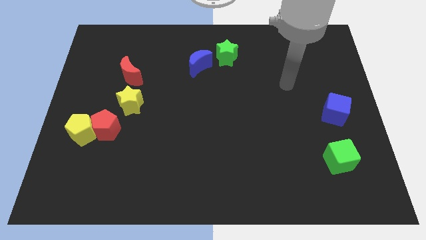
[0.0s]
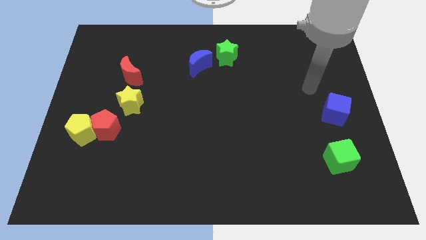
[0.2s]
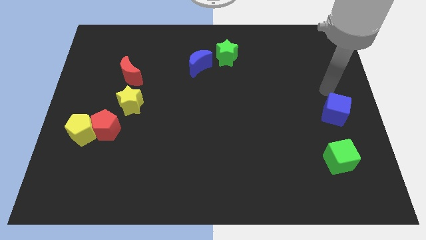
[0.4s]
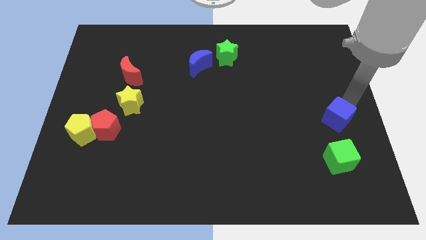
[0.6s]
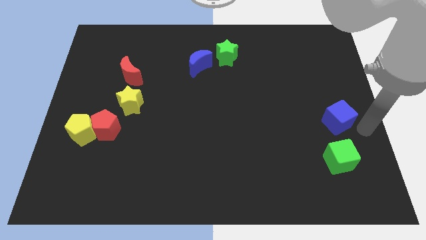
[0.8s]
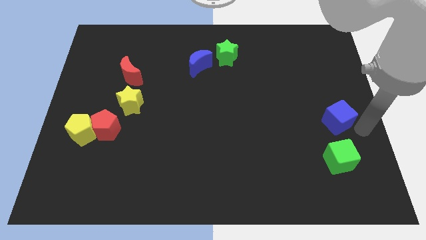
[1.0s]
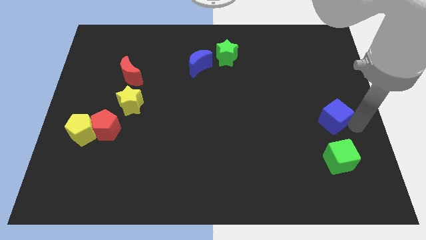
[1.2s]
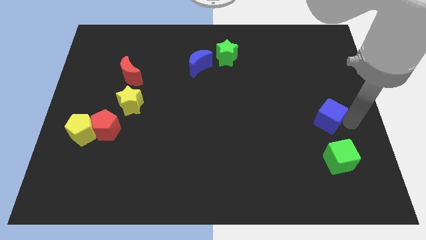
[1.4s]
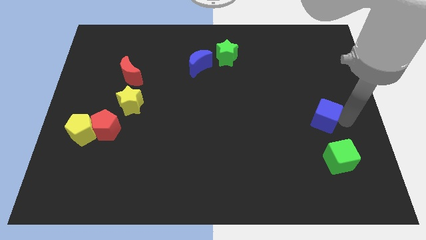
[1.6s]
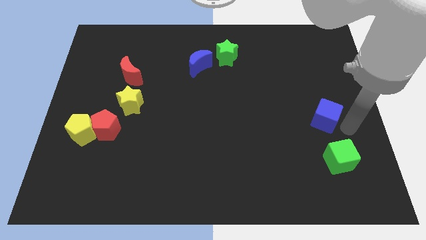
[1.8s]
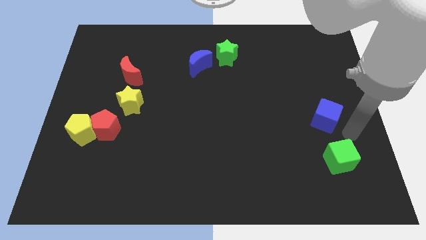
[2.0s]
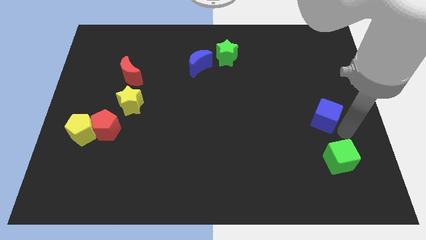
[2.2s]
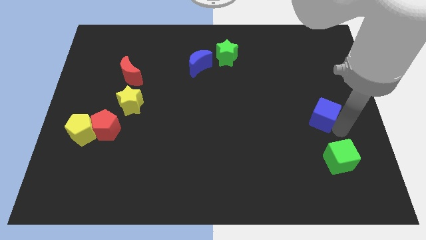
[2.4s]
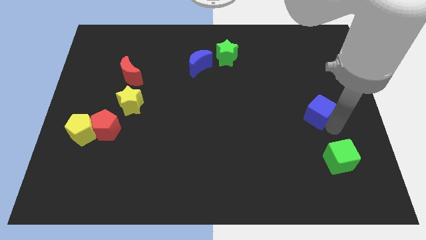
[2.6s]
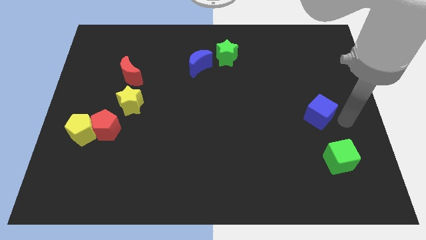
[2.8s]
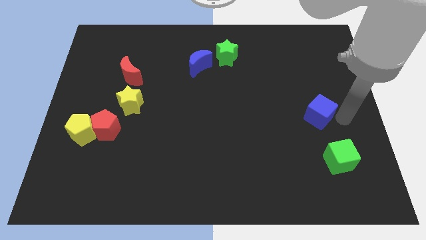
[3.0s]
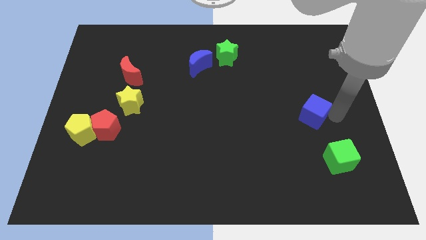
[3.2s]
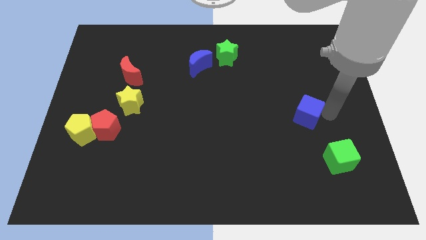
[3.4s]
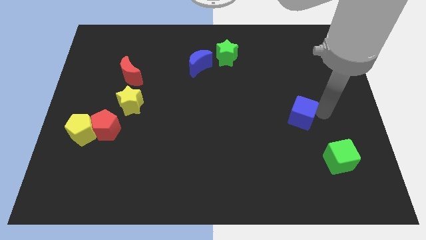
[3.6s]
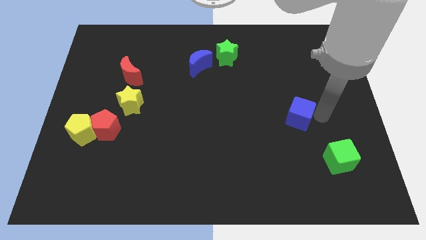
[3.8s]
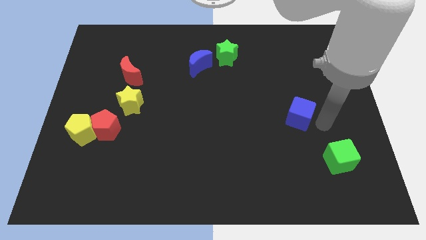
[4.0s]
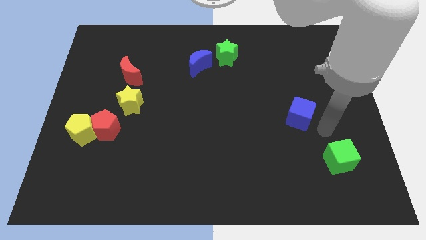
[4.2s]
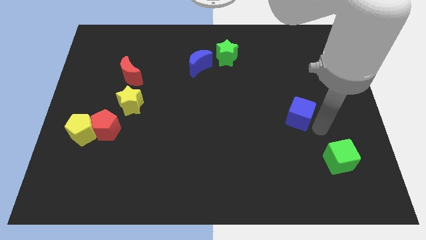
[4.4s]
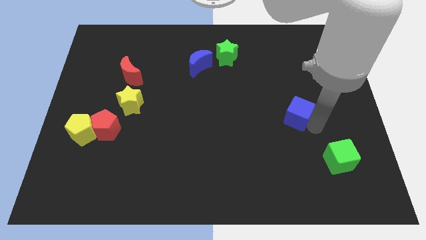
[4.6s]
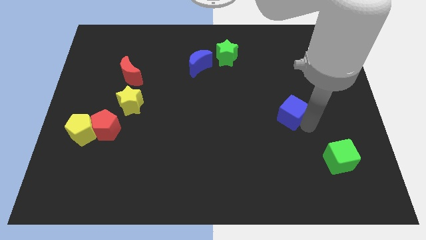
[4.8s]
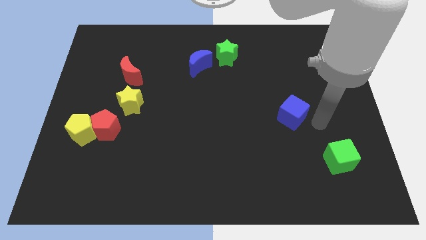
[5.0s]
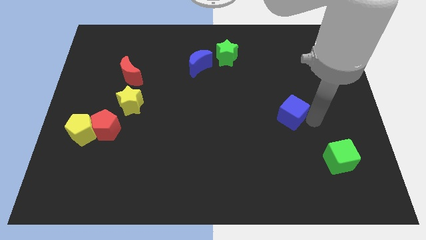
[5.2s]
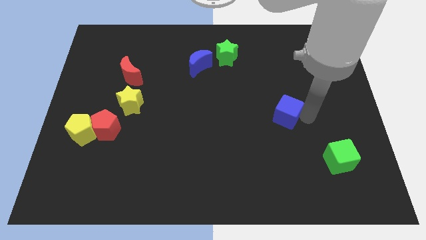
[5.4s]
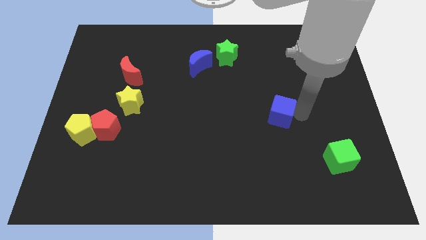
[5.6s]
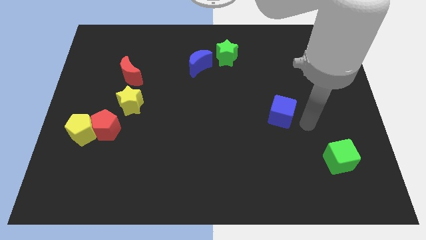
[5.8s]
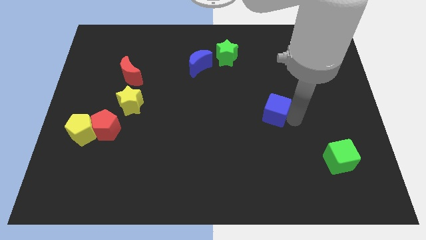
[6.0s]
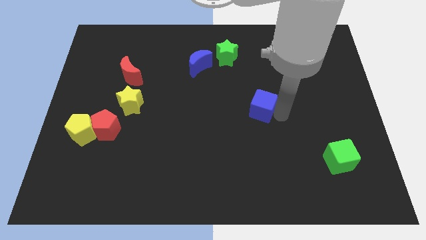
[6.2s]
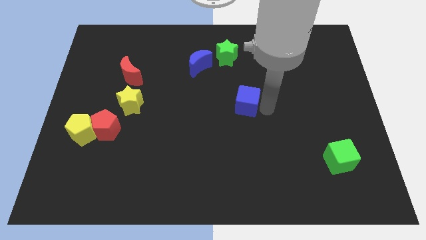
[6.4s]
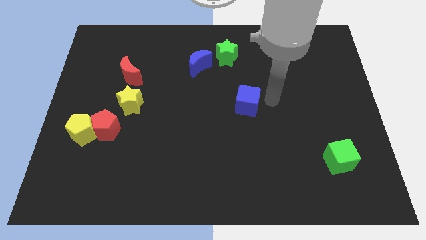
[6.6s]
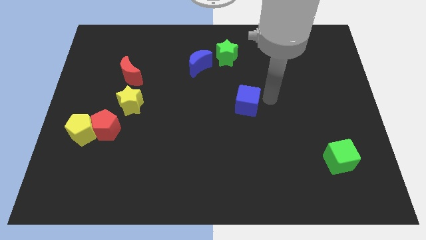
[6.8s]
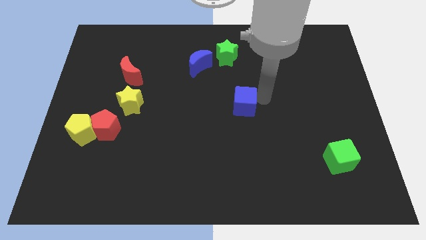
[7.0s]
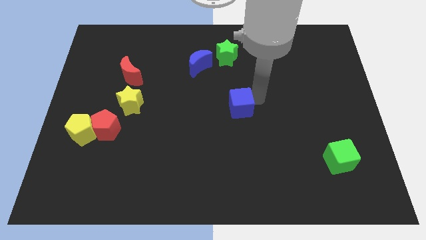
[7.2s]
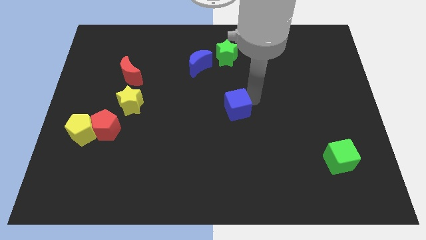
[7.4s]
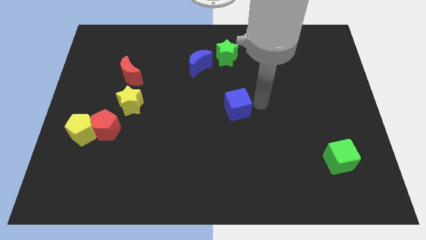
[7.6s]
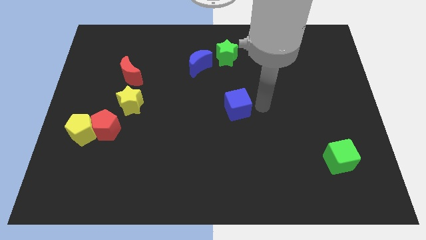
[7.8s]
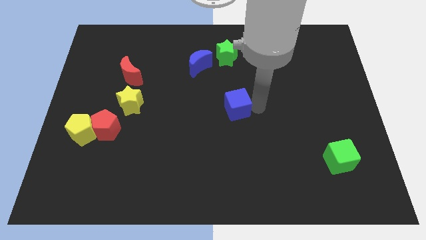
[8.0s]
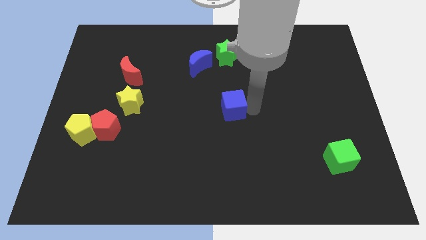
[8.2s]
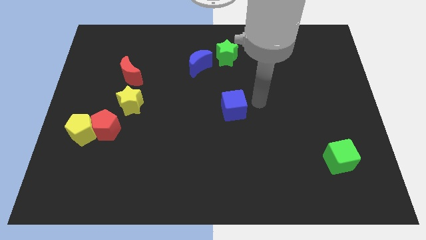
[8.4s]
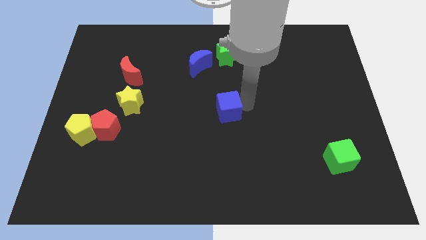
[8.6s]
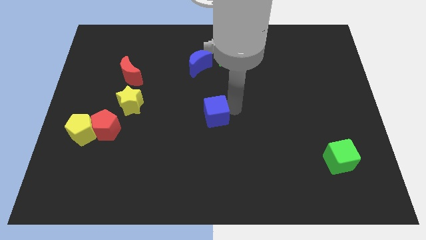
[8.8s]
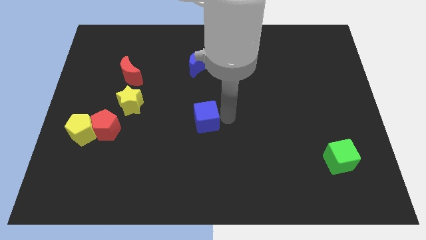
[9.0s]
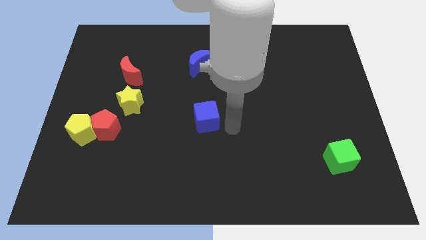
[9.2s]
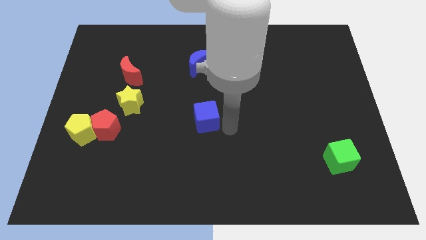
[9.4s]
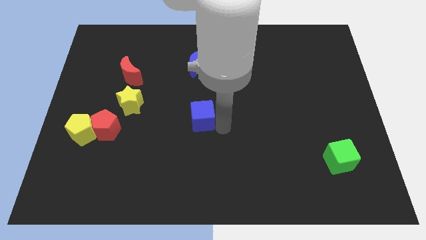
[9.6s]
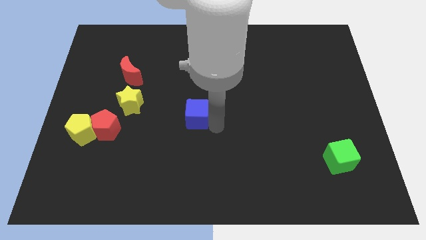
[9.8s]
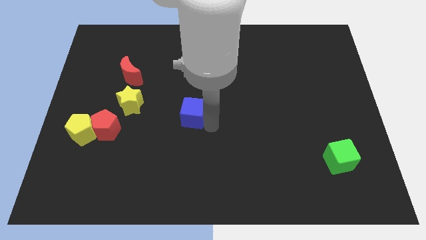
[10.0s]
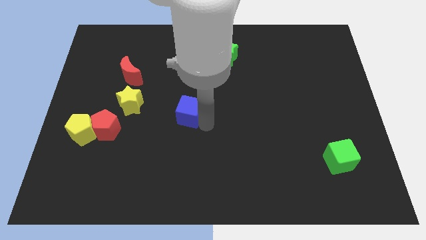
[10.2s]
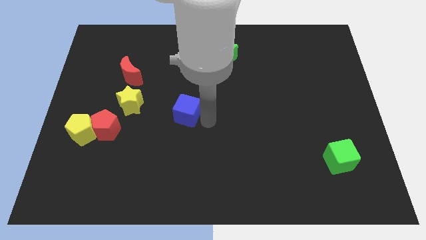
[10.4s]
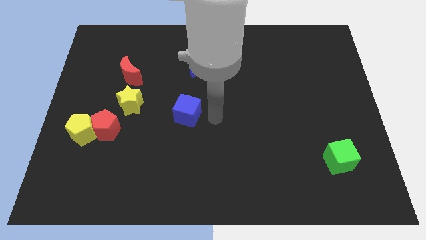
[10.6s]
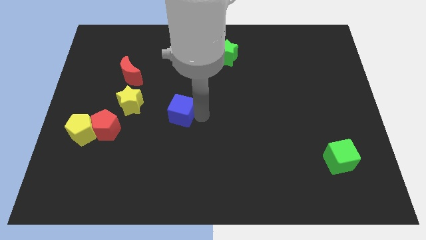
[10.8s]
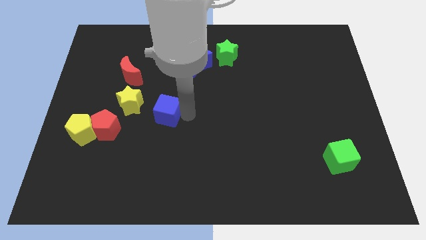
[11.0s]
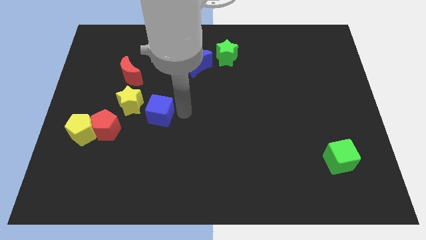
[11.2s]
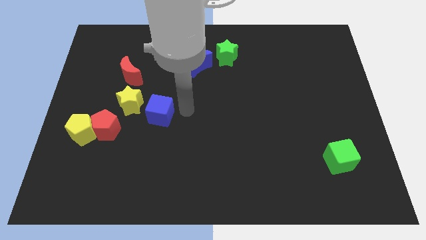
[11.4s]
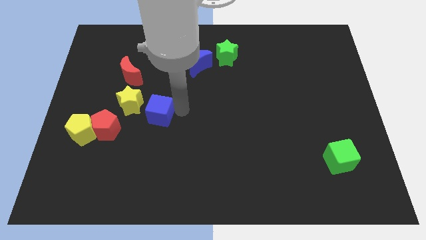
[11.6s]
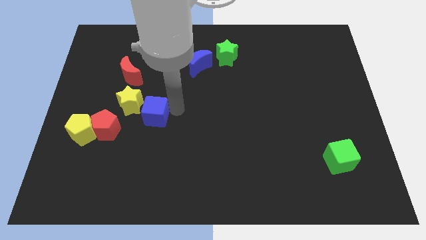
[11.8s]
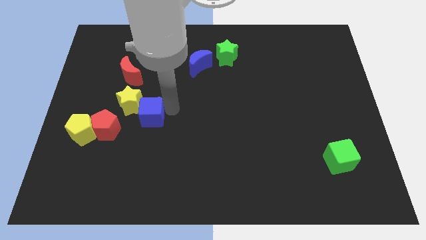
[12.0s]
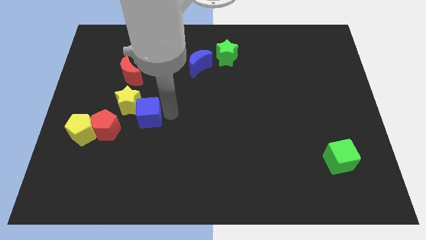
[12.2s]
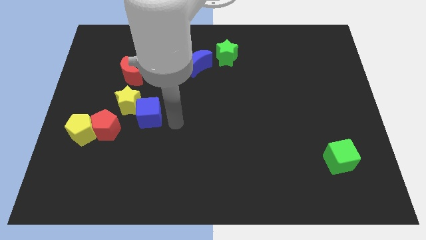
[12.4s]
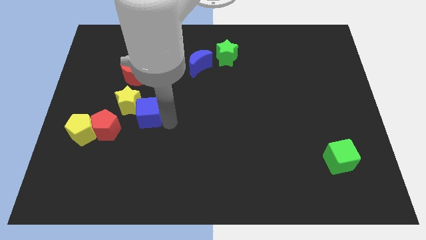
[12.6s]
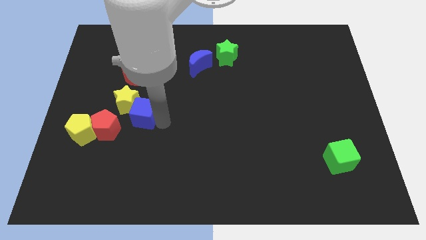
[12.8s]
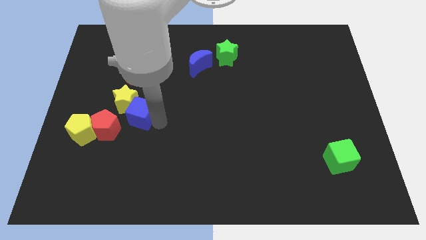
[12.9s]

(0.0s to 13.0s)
slide the blue cube below the red moon

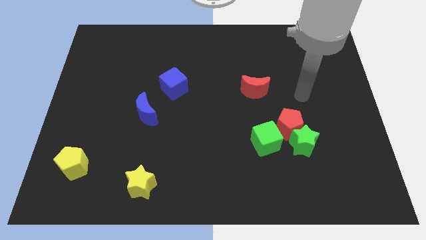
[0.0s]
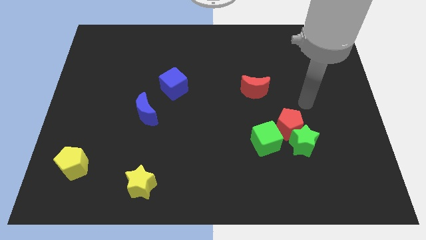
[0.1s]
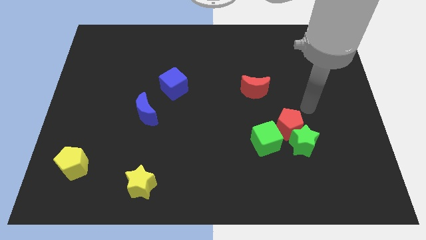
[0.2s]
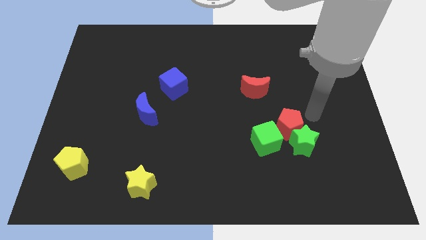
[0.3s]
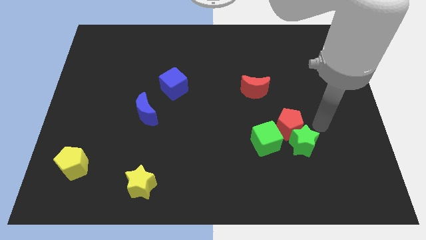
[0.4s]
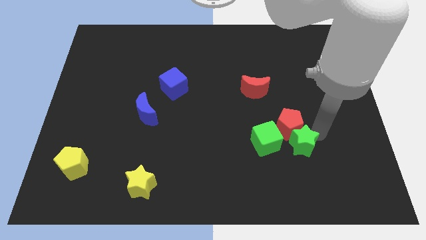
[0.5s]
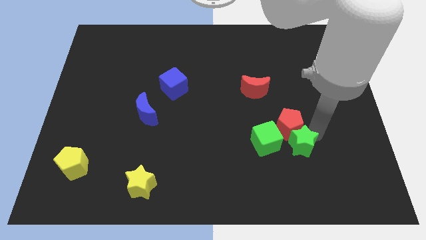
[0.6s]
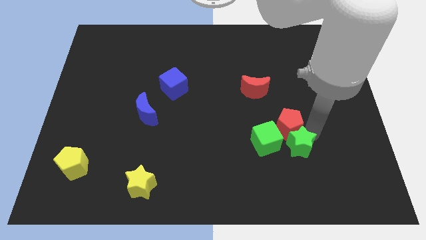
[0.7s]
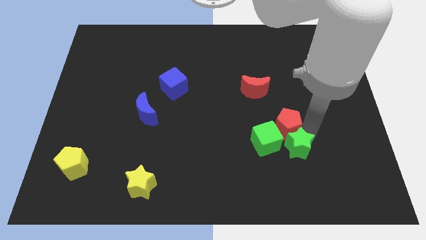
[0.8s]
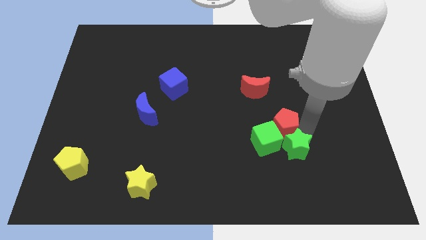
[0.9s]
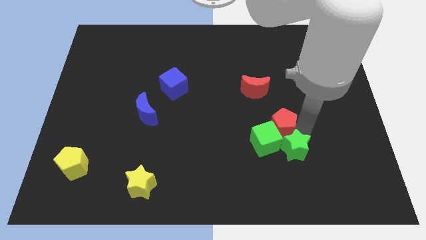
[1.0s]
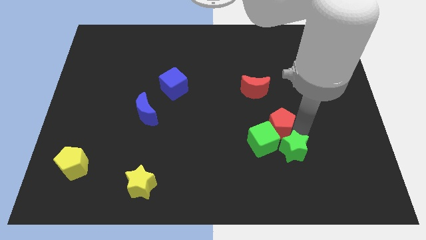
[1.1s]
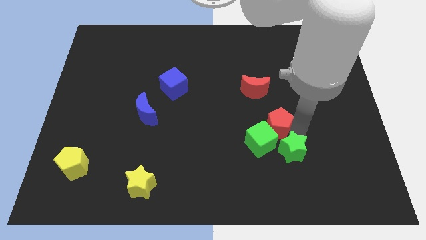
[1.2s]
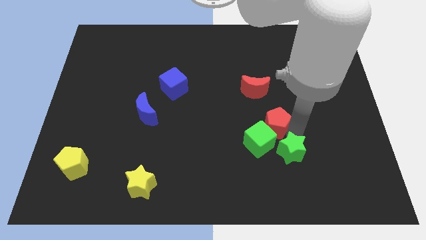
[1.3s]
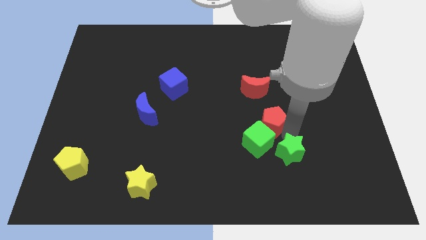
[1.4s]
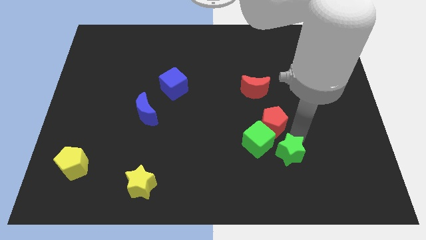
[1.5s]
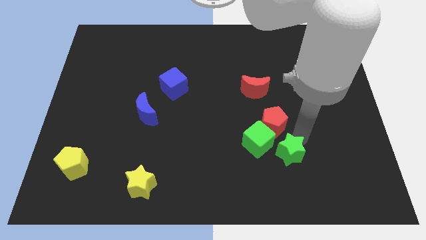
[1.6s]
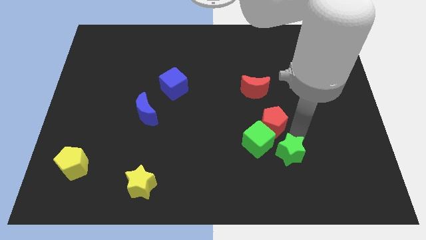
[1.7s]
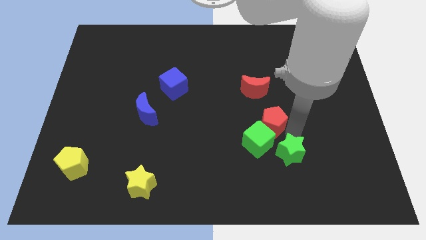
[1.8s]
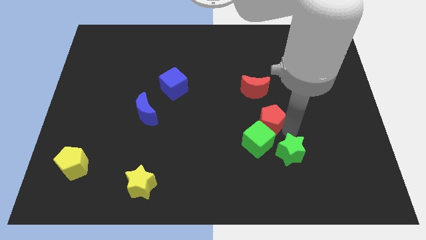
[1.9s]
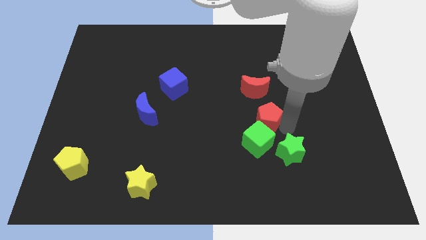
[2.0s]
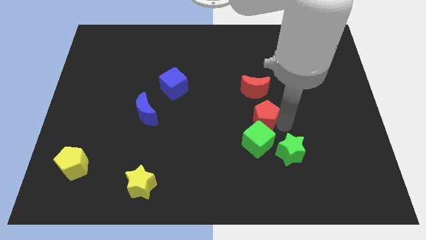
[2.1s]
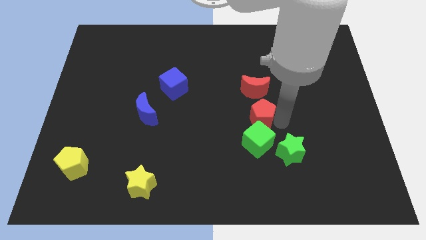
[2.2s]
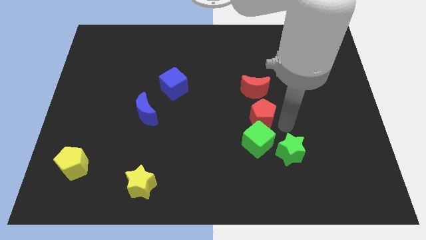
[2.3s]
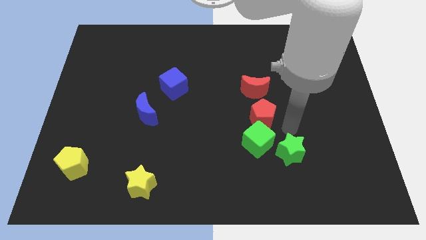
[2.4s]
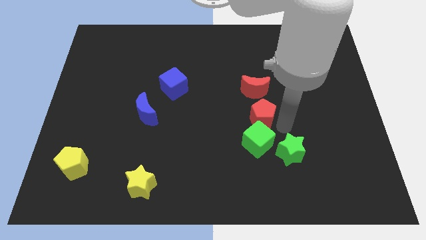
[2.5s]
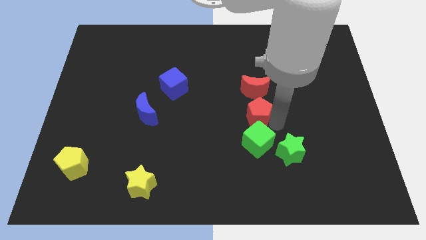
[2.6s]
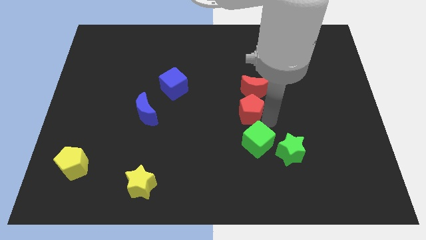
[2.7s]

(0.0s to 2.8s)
move the red pentagon to the bottom left of the red moon
